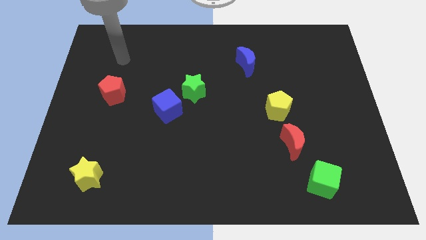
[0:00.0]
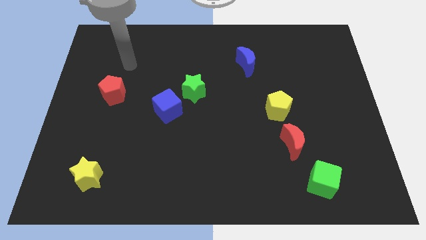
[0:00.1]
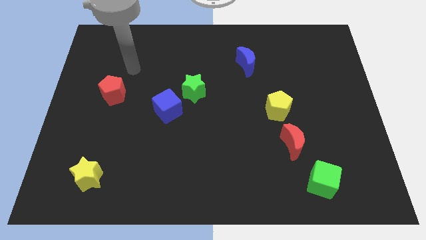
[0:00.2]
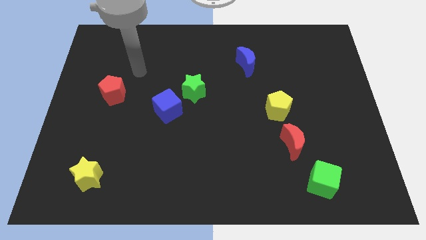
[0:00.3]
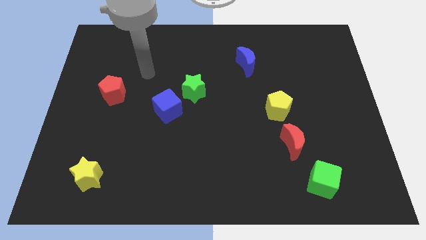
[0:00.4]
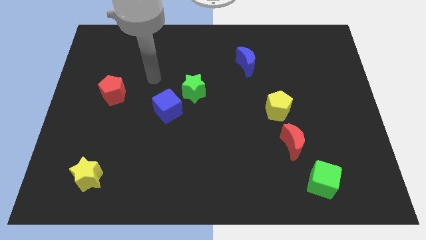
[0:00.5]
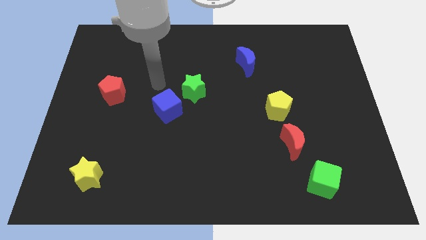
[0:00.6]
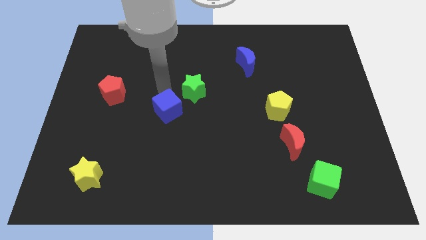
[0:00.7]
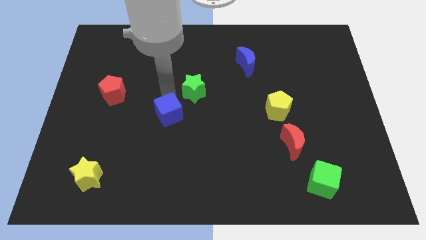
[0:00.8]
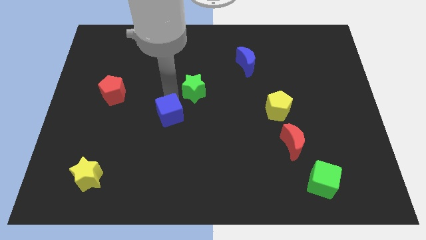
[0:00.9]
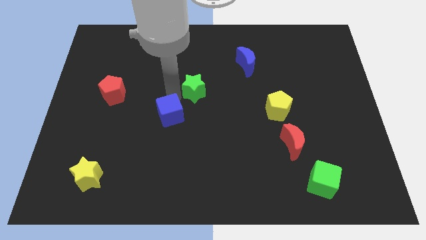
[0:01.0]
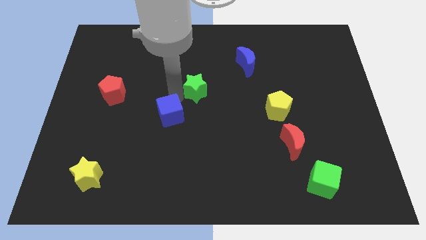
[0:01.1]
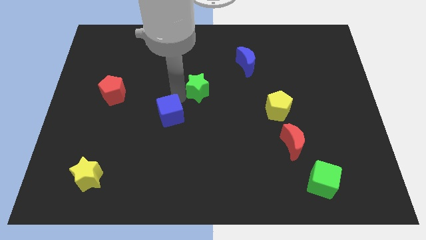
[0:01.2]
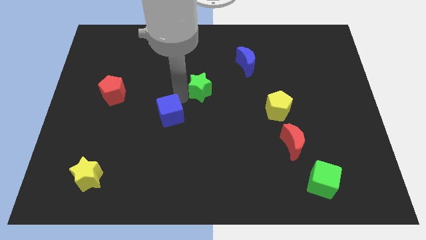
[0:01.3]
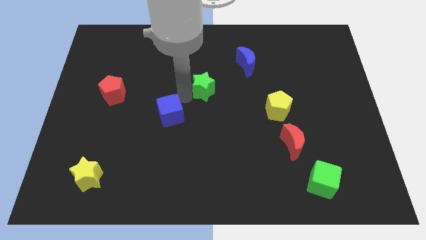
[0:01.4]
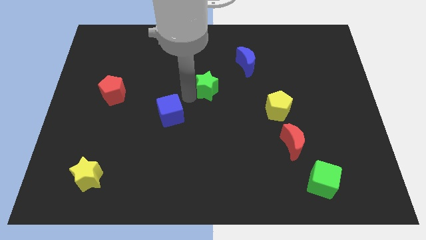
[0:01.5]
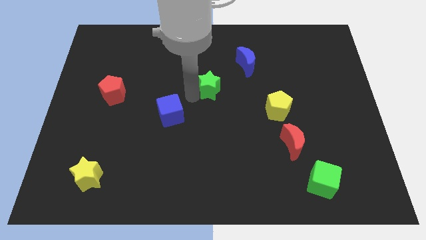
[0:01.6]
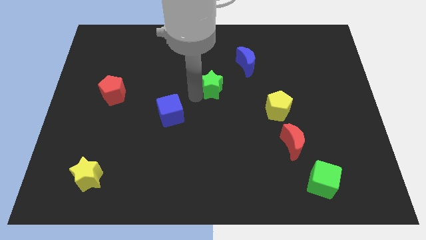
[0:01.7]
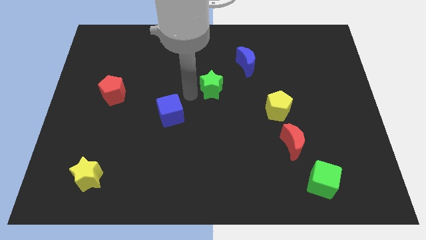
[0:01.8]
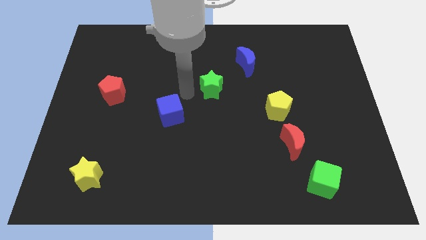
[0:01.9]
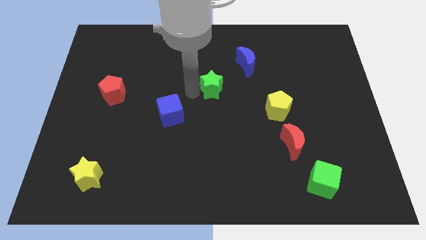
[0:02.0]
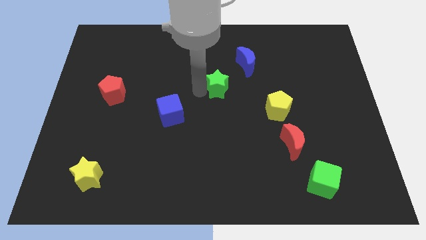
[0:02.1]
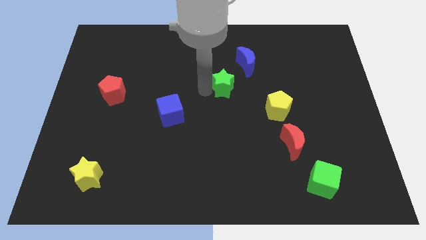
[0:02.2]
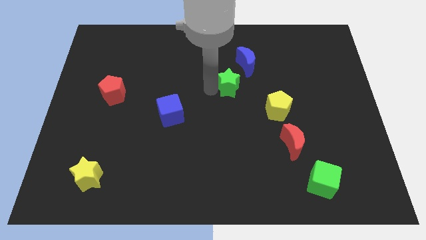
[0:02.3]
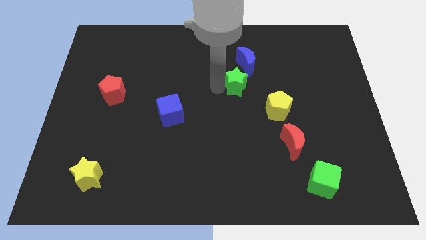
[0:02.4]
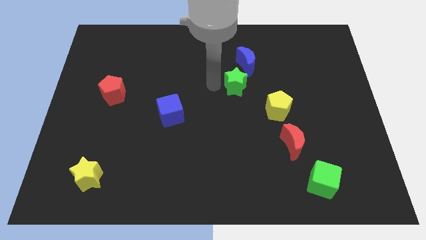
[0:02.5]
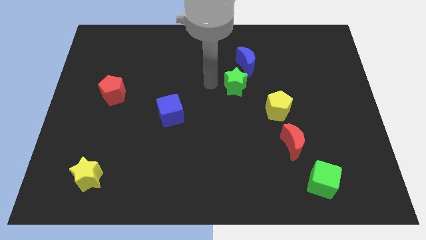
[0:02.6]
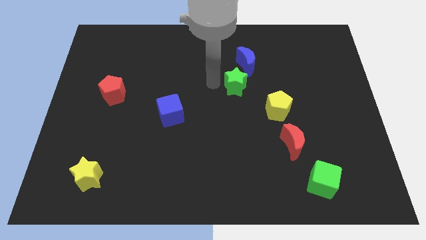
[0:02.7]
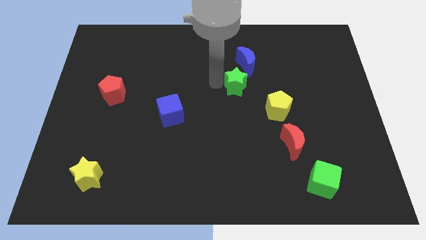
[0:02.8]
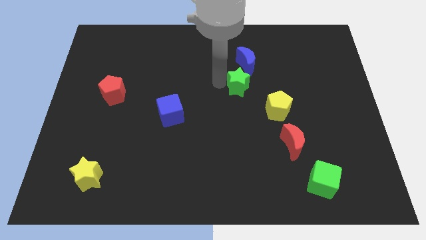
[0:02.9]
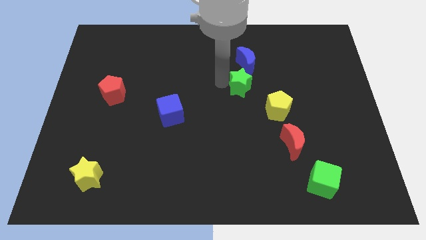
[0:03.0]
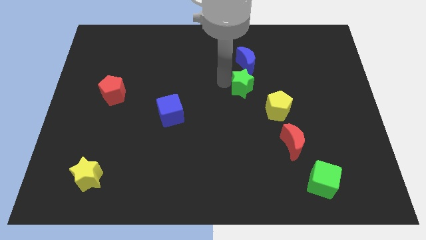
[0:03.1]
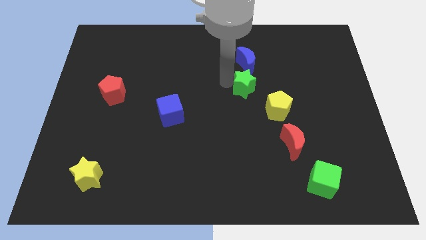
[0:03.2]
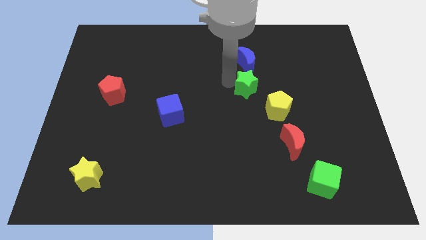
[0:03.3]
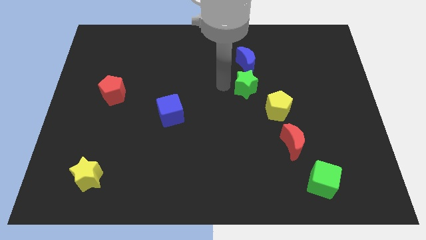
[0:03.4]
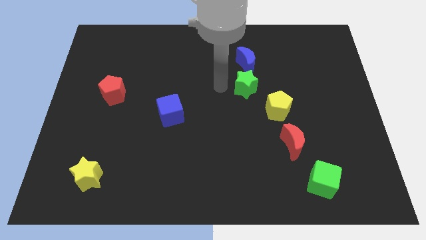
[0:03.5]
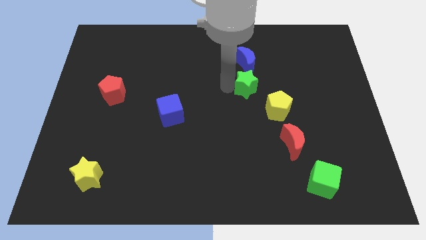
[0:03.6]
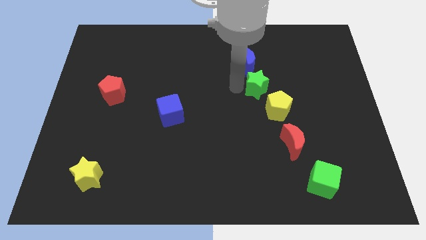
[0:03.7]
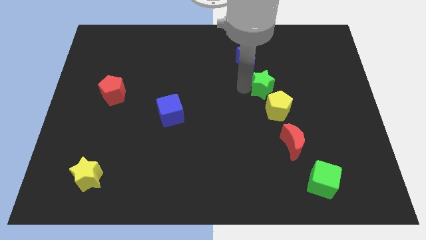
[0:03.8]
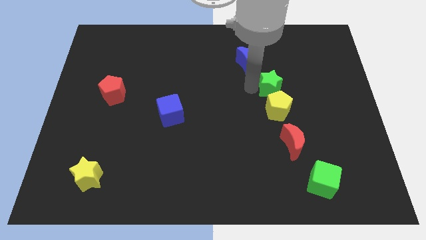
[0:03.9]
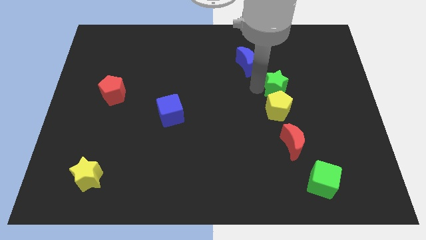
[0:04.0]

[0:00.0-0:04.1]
move the green star to the right

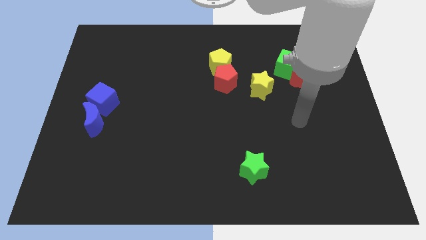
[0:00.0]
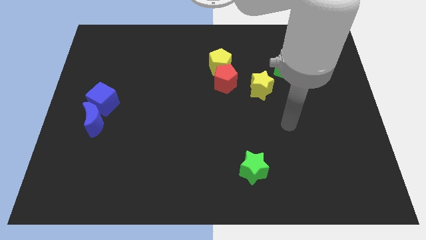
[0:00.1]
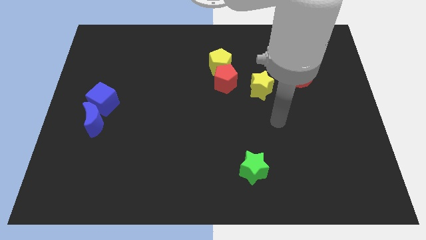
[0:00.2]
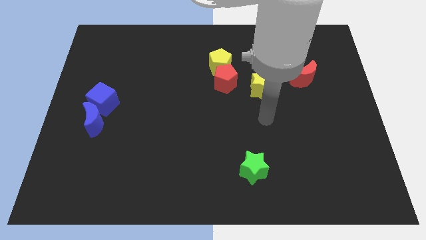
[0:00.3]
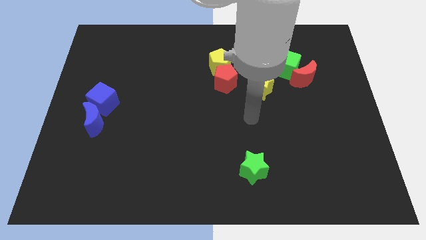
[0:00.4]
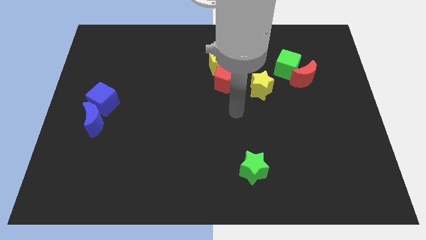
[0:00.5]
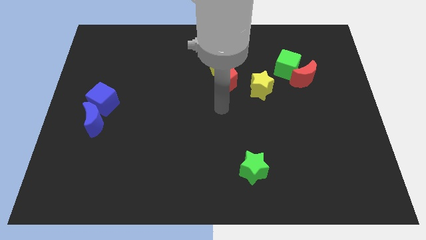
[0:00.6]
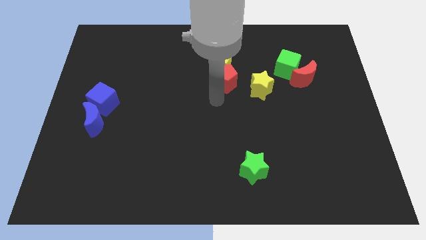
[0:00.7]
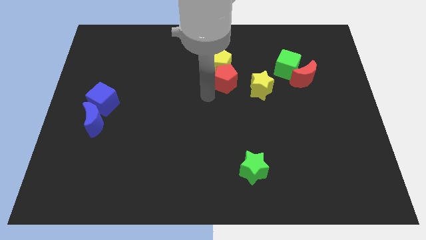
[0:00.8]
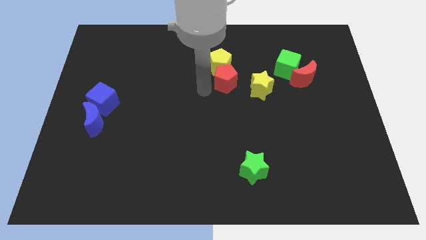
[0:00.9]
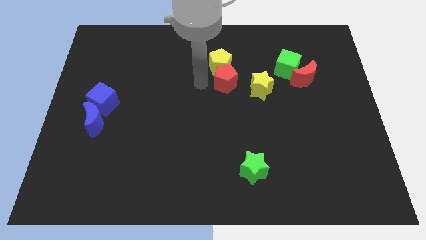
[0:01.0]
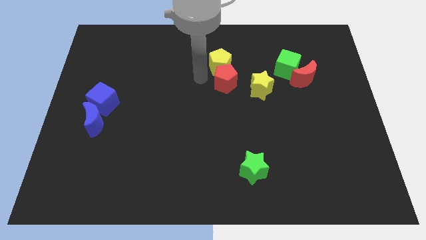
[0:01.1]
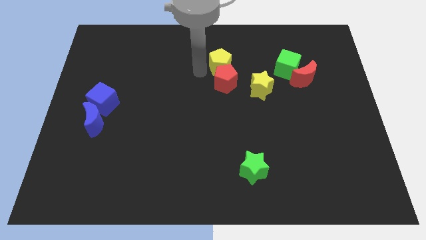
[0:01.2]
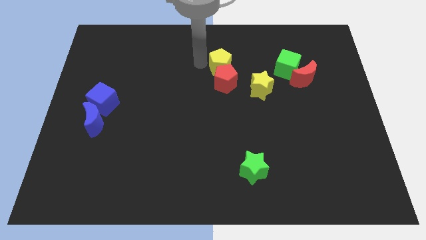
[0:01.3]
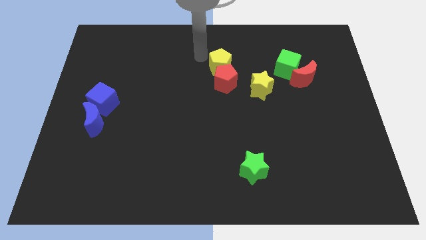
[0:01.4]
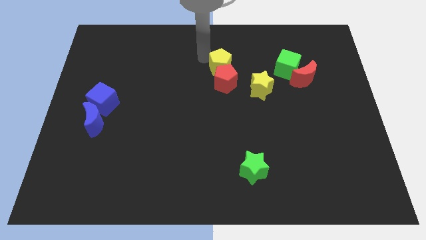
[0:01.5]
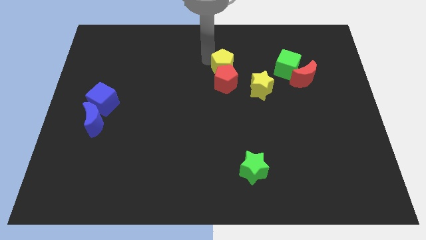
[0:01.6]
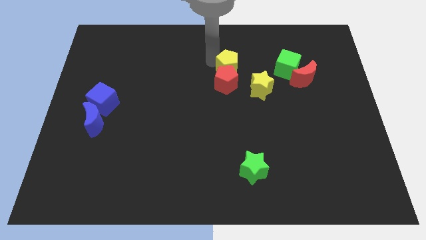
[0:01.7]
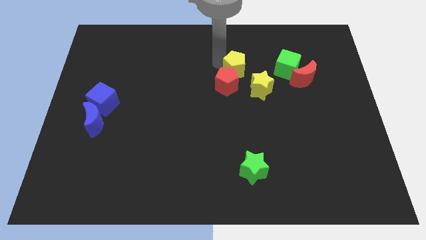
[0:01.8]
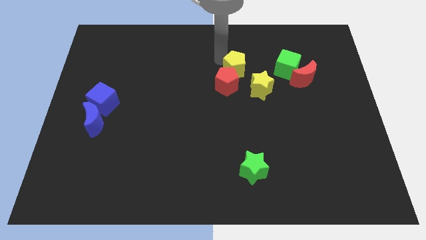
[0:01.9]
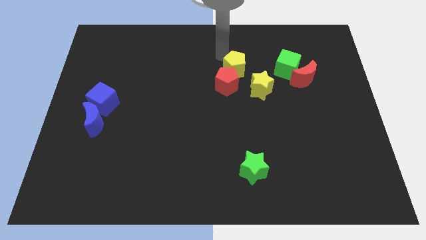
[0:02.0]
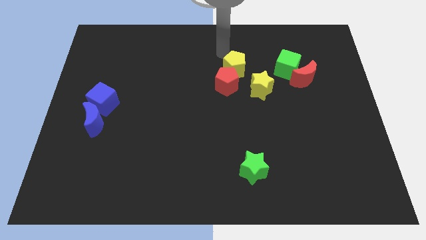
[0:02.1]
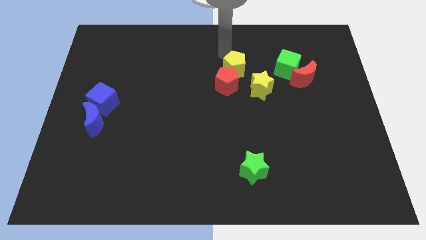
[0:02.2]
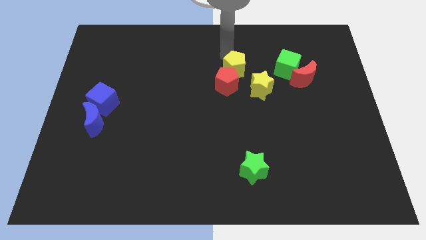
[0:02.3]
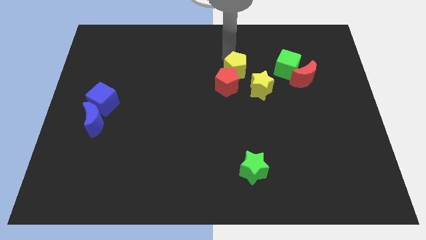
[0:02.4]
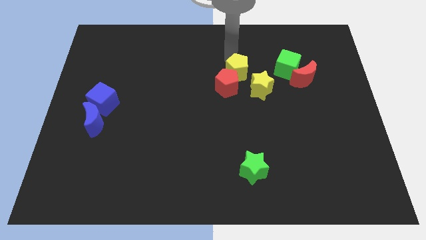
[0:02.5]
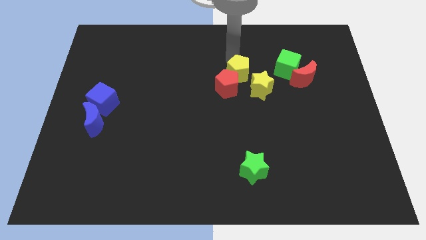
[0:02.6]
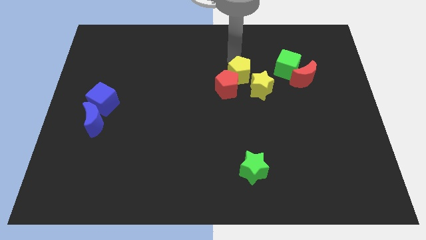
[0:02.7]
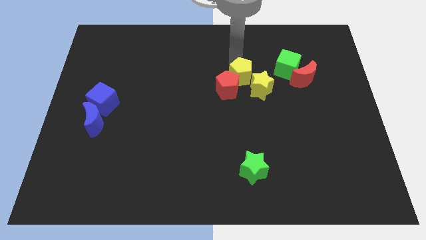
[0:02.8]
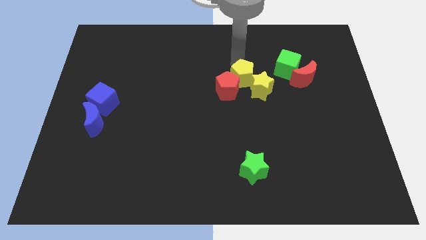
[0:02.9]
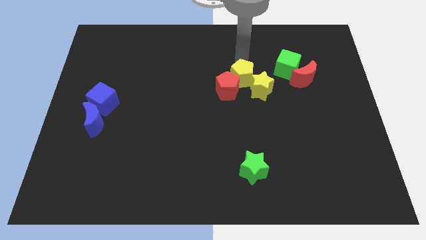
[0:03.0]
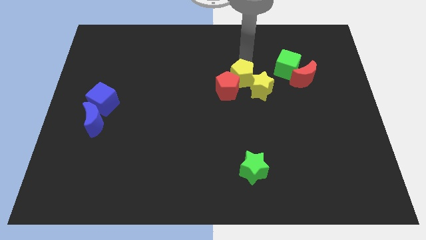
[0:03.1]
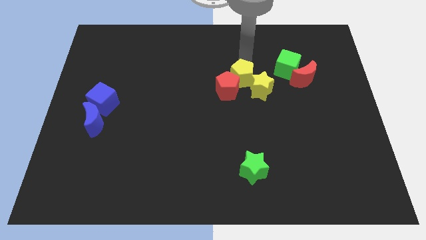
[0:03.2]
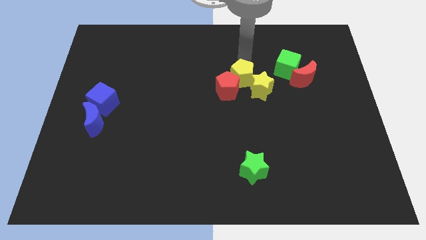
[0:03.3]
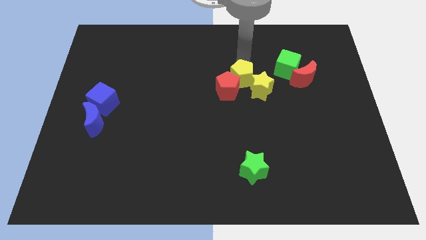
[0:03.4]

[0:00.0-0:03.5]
push the yellow pentagon downwards and right a little

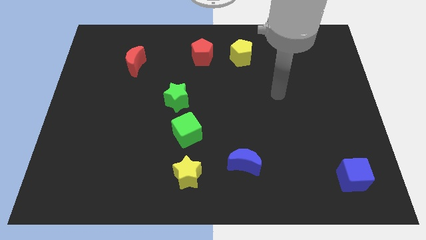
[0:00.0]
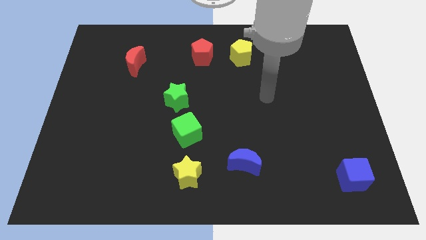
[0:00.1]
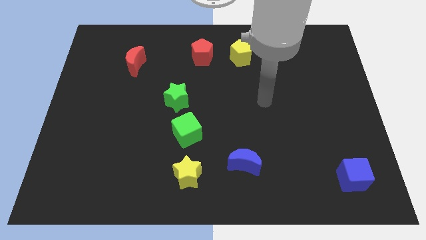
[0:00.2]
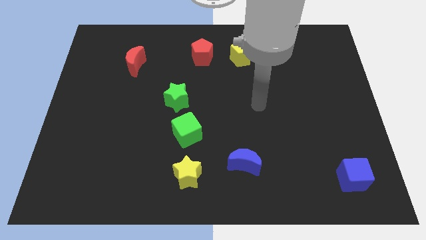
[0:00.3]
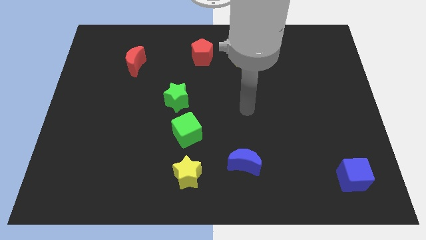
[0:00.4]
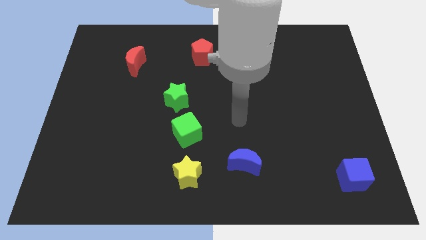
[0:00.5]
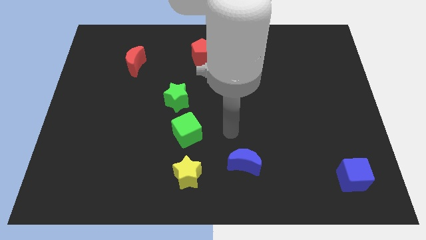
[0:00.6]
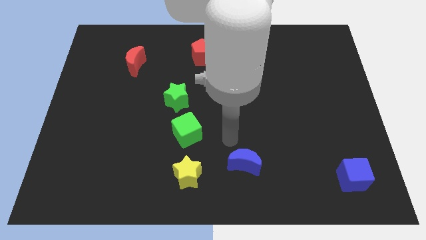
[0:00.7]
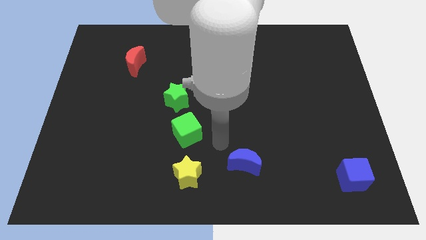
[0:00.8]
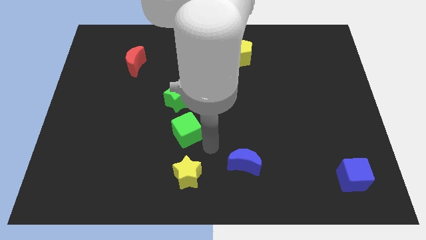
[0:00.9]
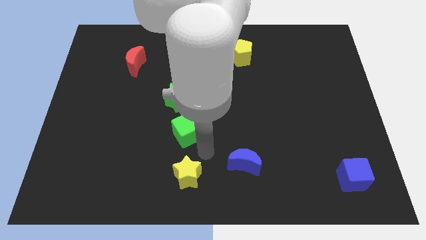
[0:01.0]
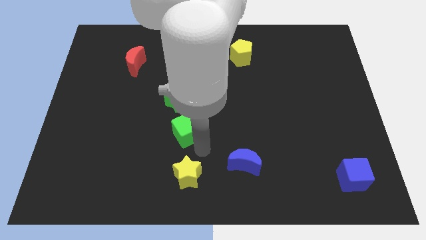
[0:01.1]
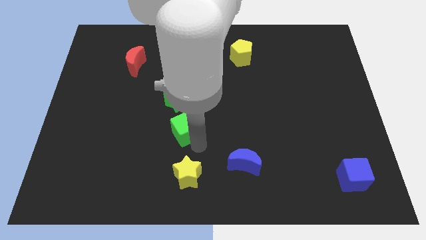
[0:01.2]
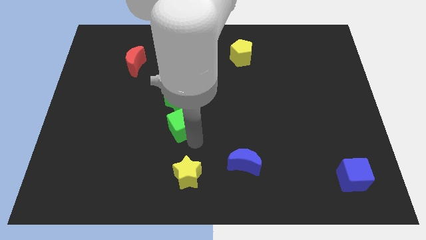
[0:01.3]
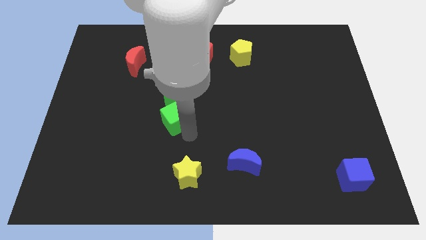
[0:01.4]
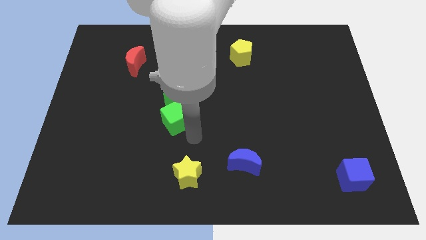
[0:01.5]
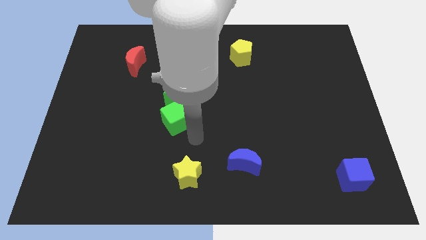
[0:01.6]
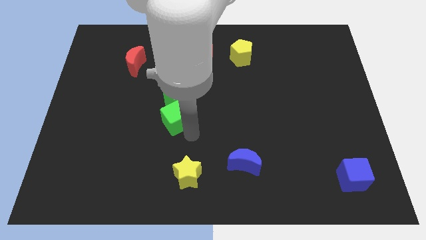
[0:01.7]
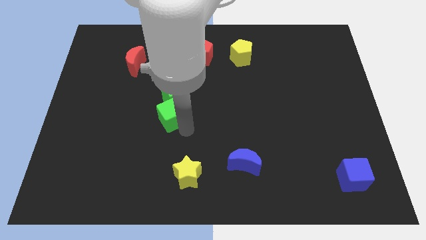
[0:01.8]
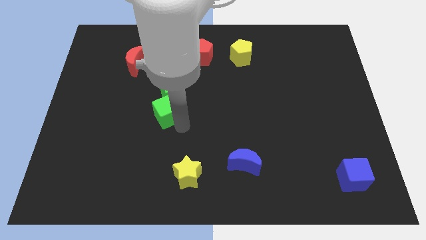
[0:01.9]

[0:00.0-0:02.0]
move the green cube a little bit diagonally up and to the left
